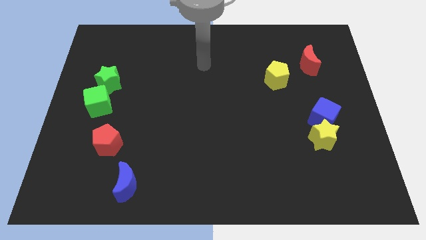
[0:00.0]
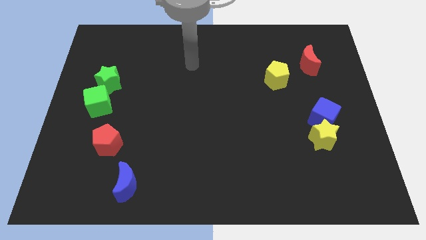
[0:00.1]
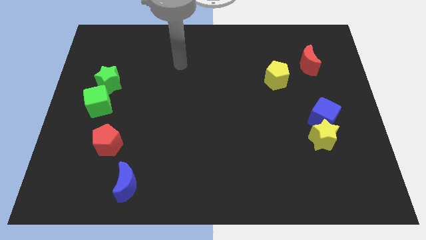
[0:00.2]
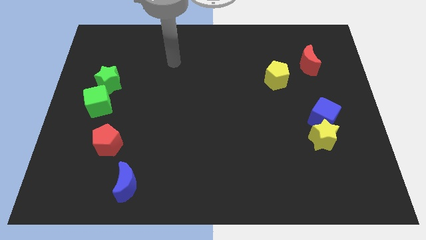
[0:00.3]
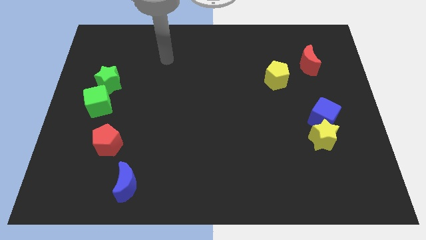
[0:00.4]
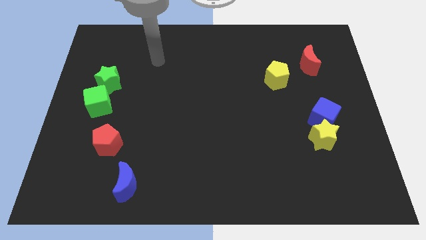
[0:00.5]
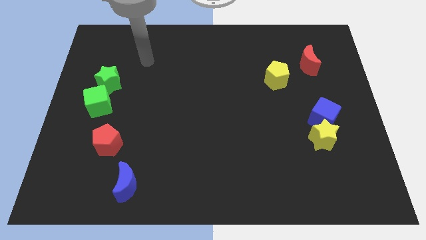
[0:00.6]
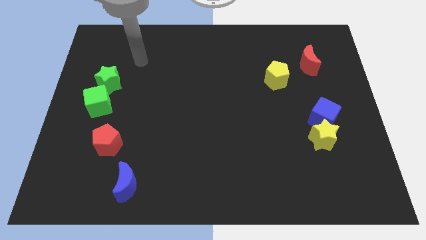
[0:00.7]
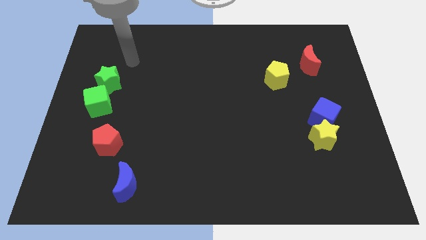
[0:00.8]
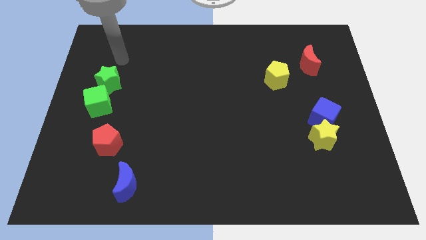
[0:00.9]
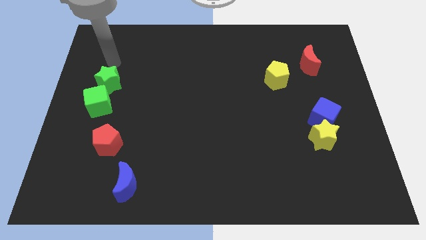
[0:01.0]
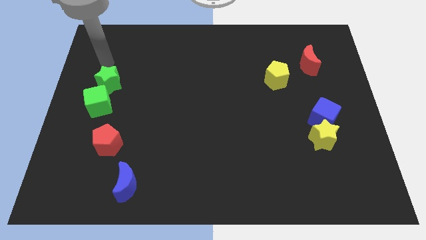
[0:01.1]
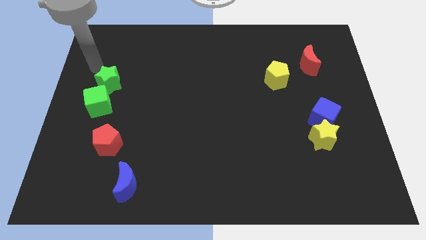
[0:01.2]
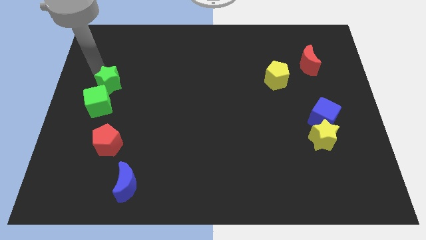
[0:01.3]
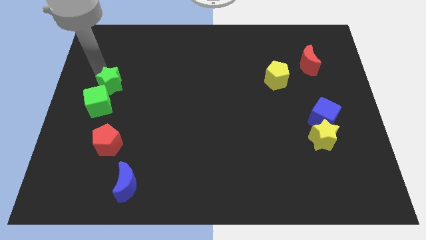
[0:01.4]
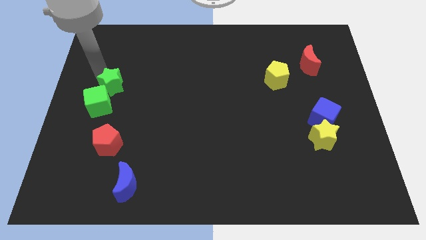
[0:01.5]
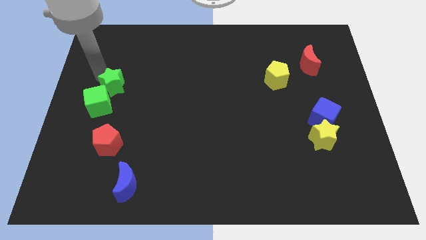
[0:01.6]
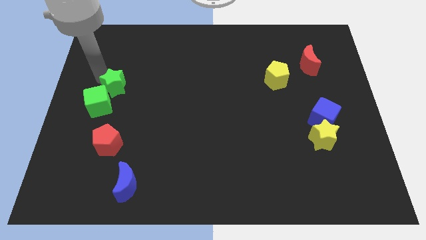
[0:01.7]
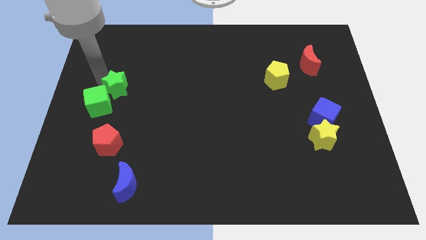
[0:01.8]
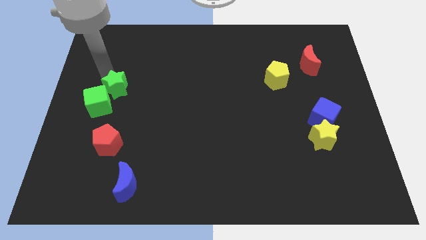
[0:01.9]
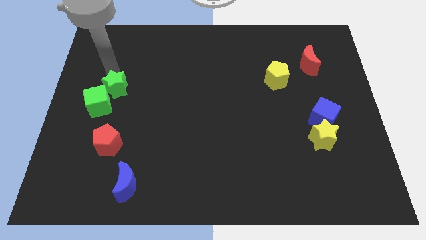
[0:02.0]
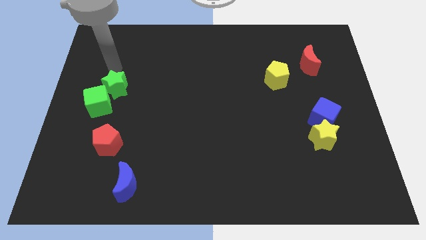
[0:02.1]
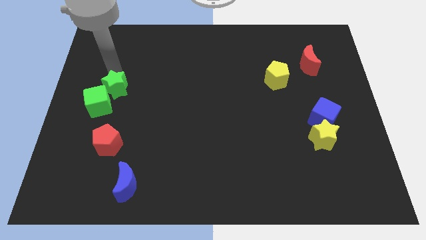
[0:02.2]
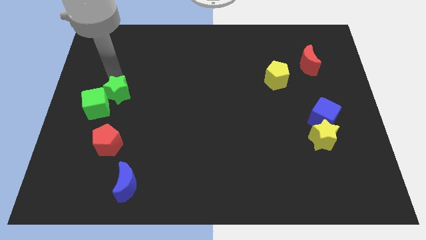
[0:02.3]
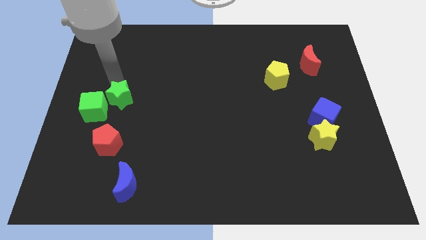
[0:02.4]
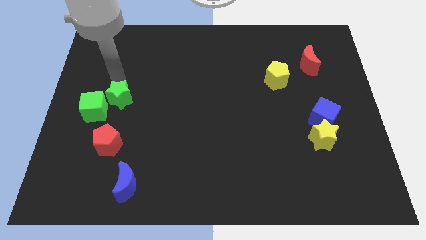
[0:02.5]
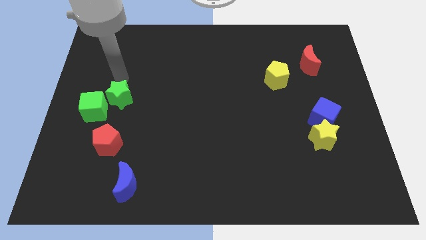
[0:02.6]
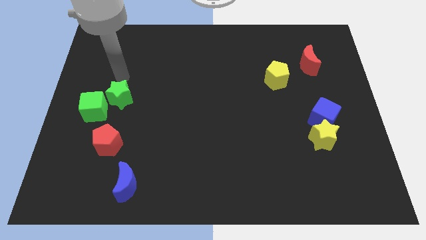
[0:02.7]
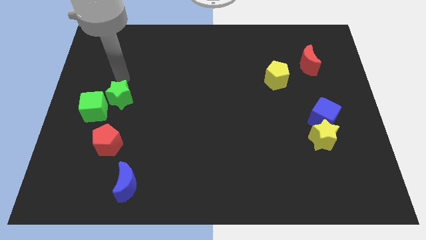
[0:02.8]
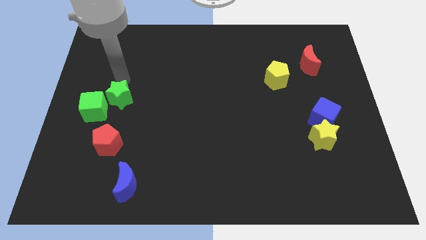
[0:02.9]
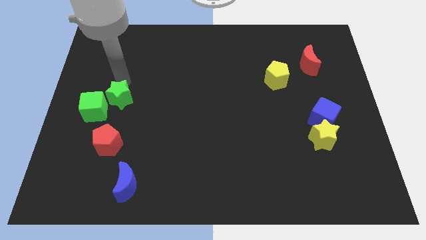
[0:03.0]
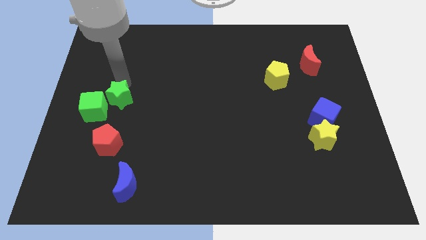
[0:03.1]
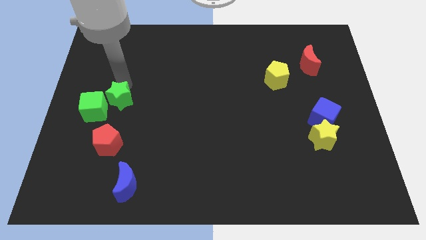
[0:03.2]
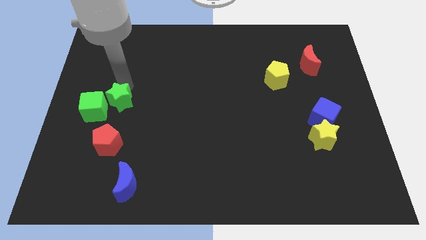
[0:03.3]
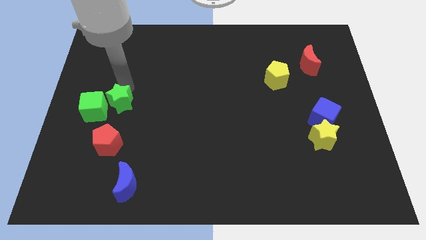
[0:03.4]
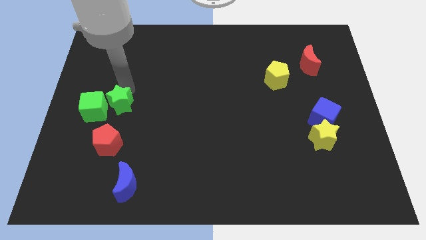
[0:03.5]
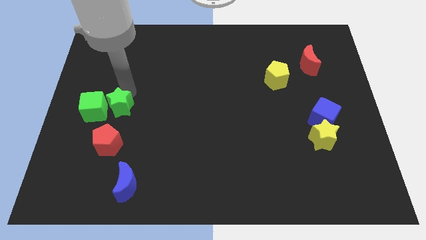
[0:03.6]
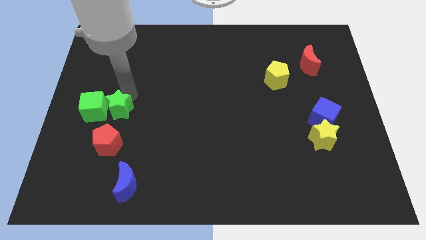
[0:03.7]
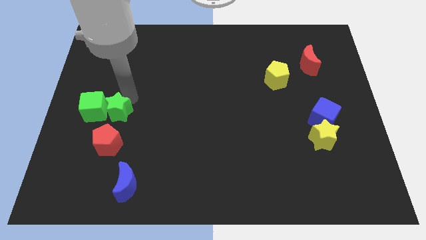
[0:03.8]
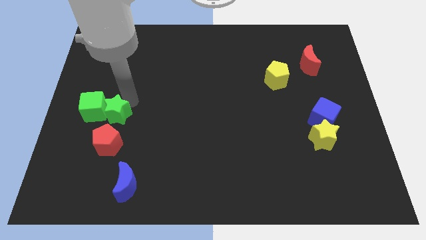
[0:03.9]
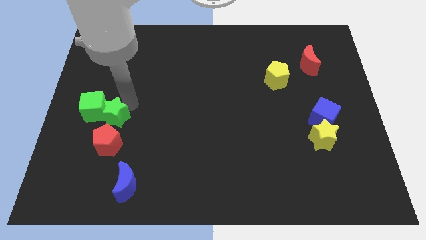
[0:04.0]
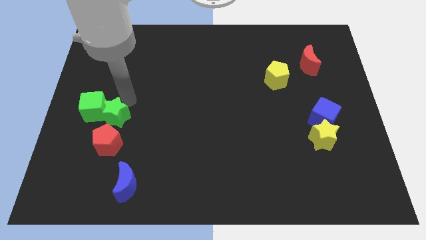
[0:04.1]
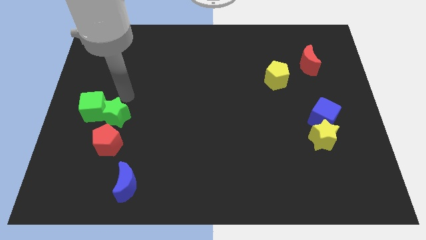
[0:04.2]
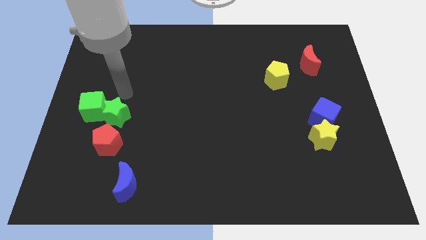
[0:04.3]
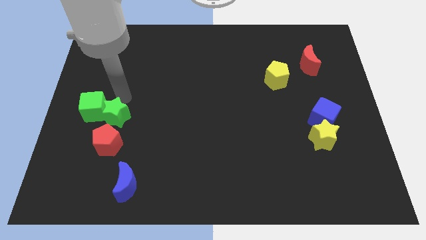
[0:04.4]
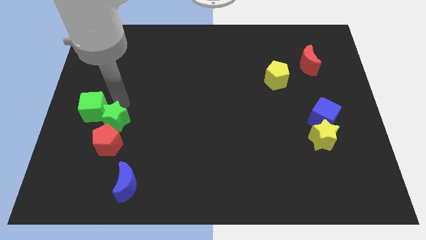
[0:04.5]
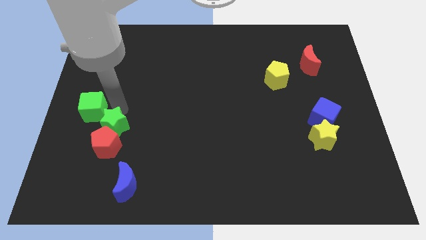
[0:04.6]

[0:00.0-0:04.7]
slide the green star close to the red pentagon

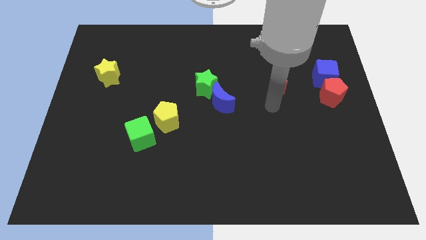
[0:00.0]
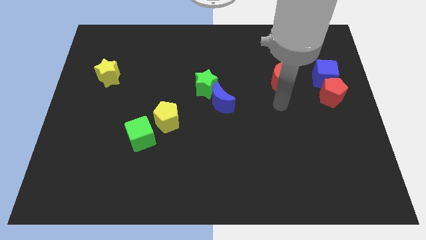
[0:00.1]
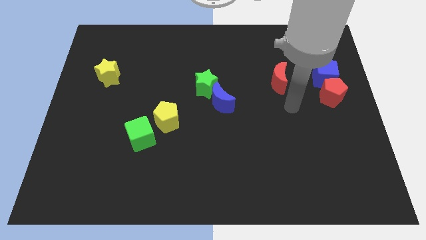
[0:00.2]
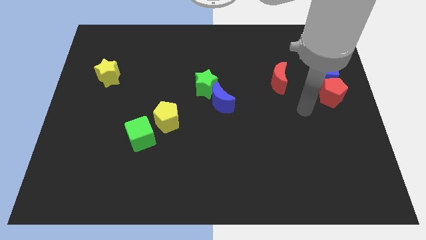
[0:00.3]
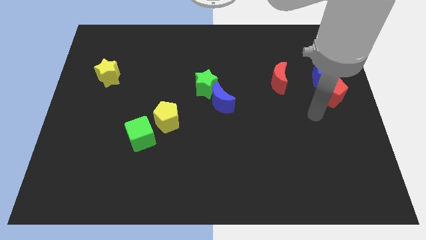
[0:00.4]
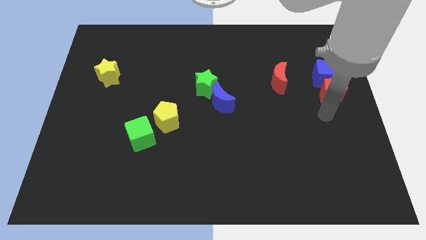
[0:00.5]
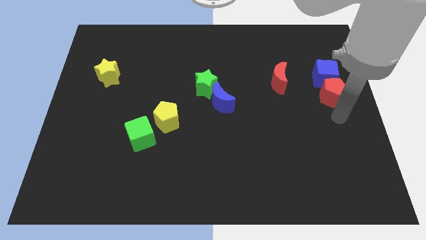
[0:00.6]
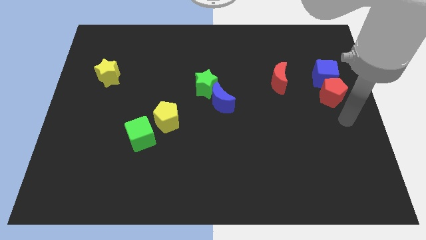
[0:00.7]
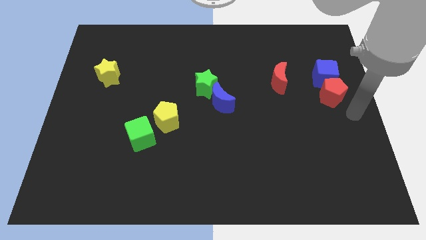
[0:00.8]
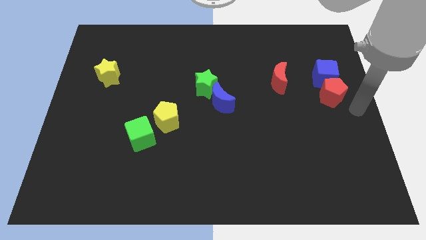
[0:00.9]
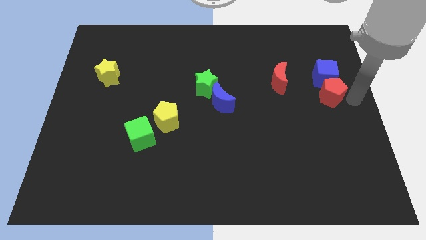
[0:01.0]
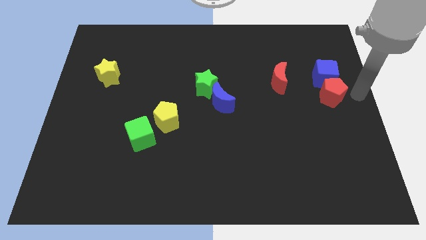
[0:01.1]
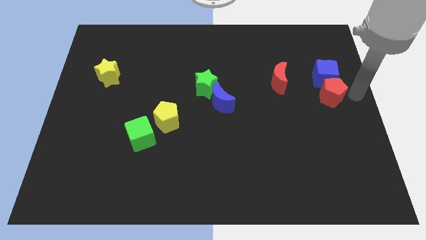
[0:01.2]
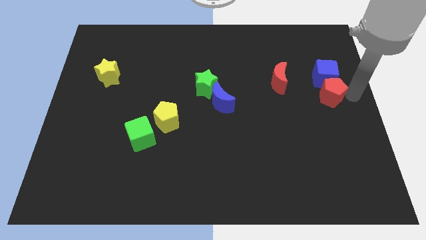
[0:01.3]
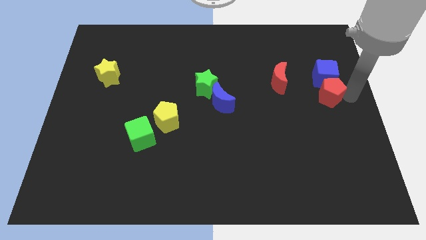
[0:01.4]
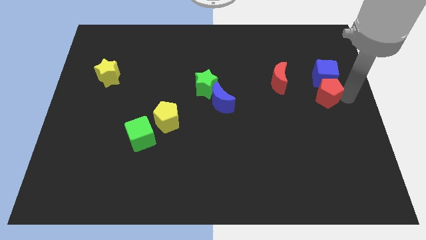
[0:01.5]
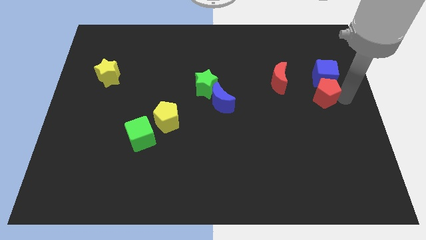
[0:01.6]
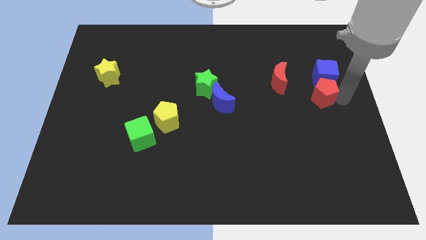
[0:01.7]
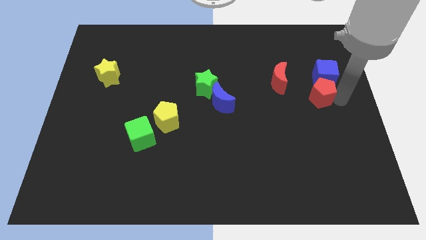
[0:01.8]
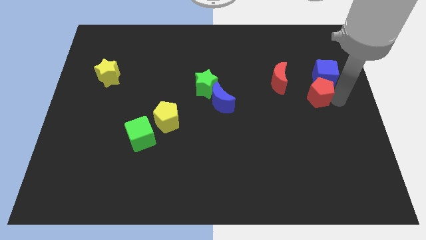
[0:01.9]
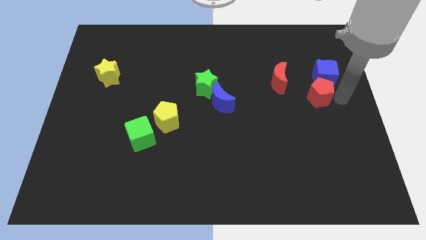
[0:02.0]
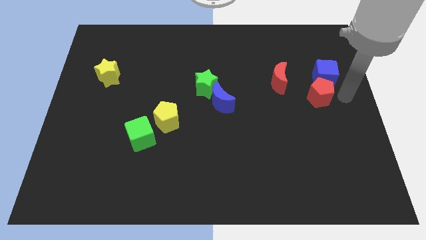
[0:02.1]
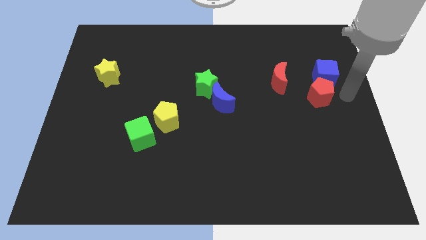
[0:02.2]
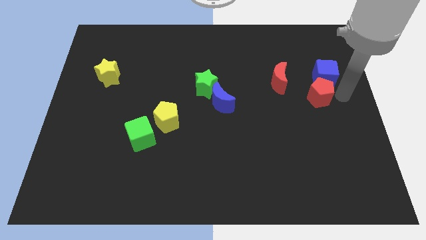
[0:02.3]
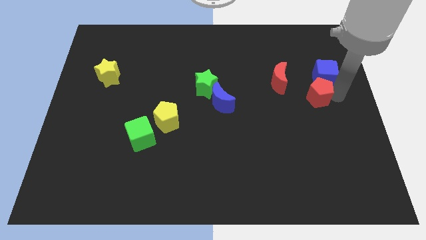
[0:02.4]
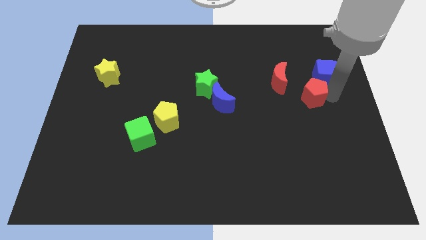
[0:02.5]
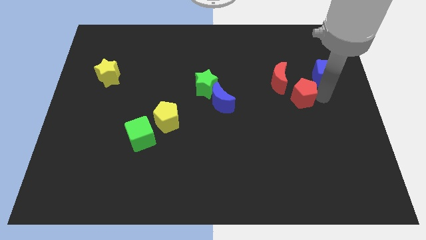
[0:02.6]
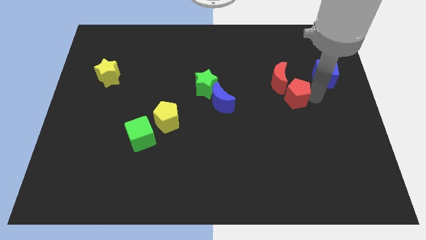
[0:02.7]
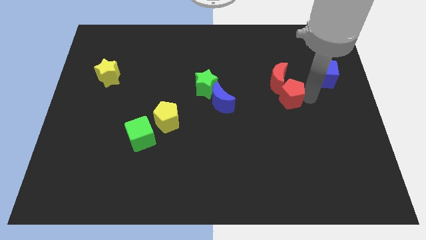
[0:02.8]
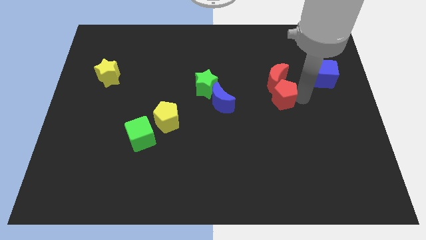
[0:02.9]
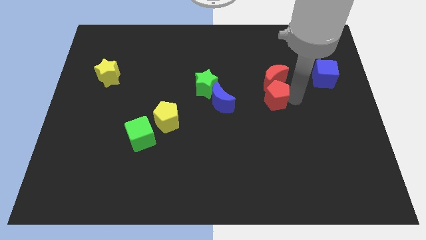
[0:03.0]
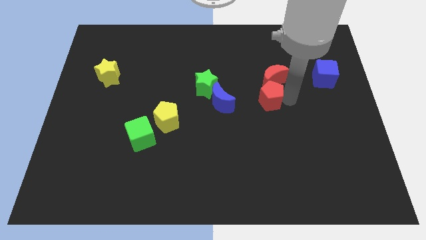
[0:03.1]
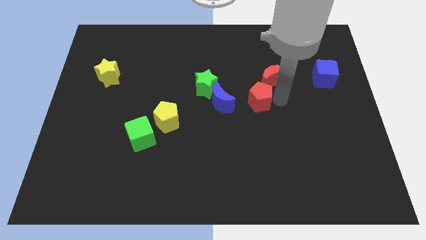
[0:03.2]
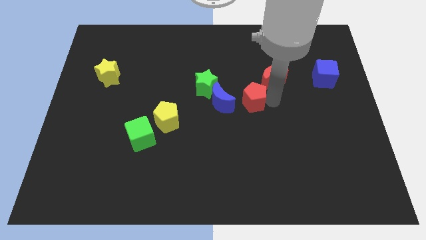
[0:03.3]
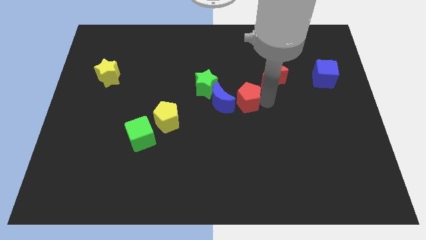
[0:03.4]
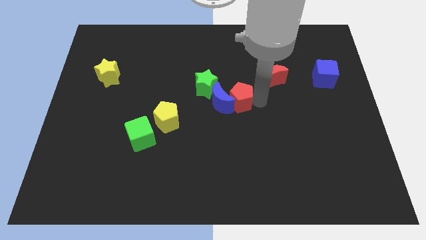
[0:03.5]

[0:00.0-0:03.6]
push the red pentagon to the blue moon
